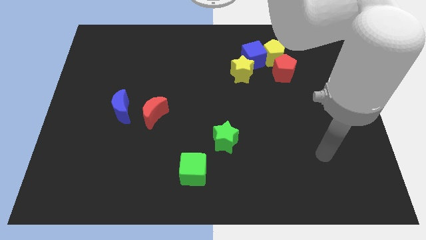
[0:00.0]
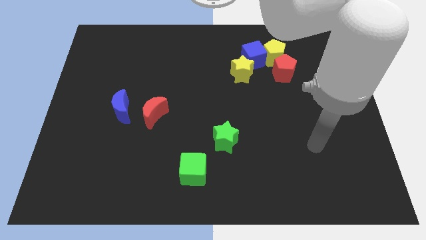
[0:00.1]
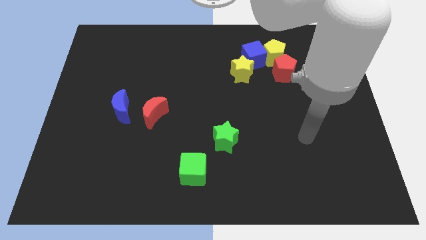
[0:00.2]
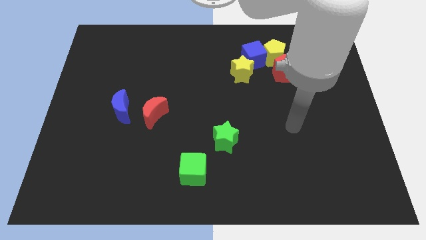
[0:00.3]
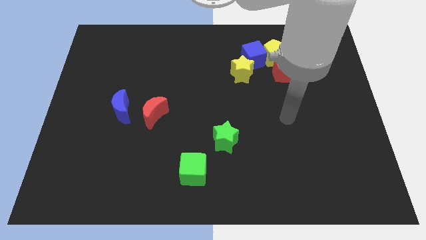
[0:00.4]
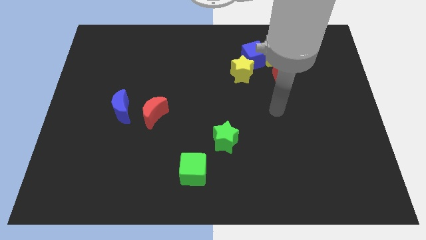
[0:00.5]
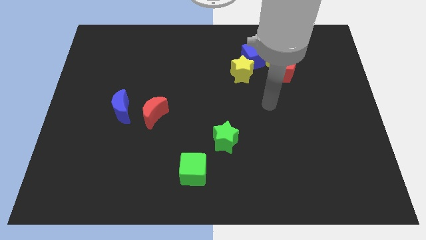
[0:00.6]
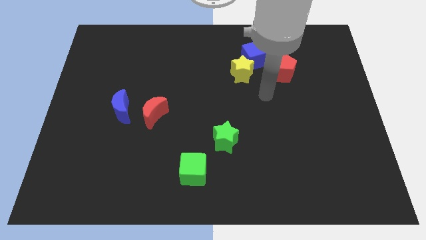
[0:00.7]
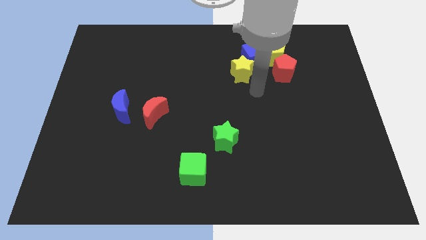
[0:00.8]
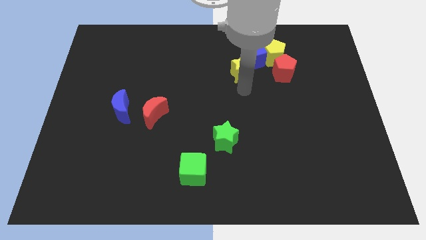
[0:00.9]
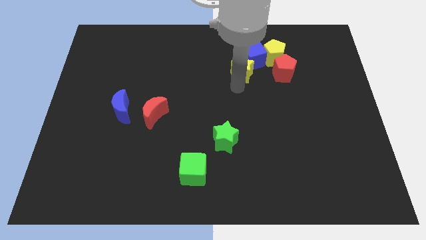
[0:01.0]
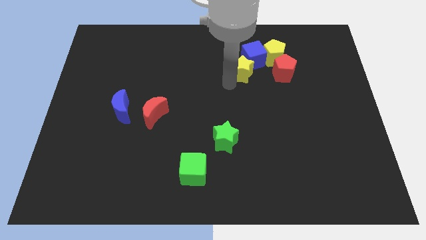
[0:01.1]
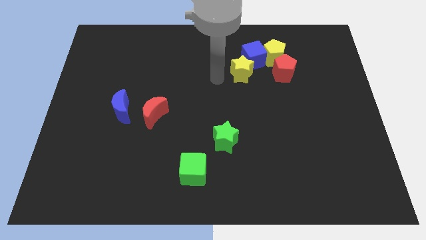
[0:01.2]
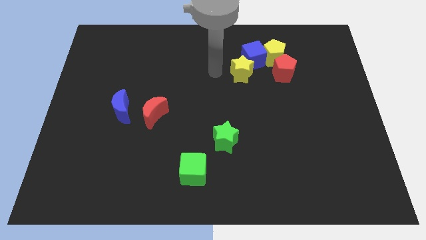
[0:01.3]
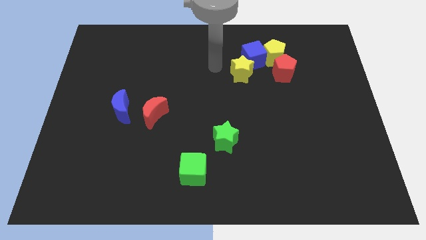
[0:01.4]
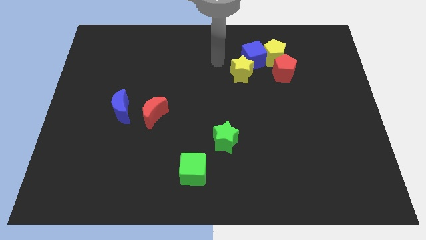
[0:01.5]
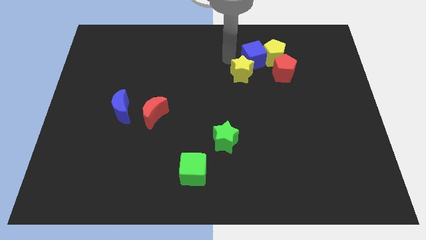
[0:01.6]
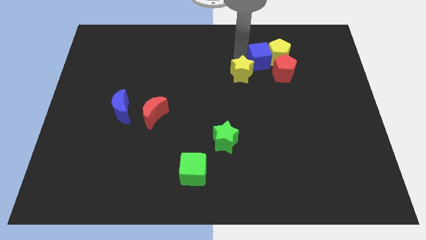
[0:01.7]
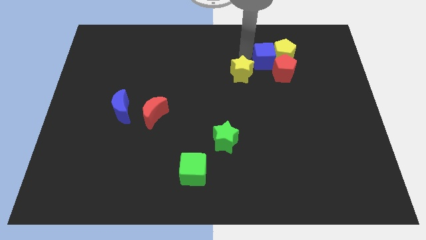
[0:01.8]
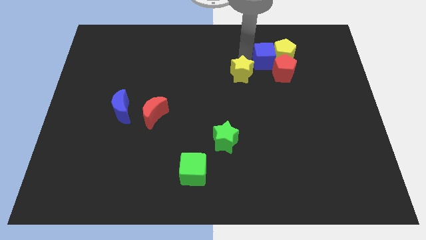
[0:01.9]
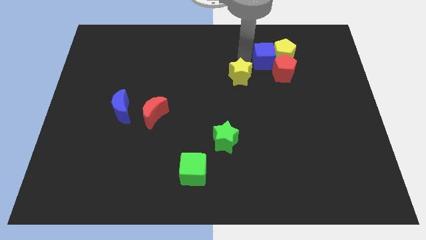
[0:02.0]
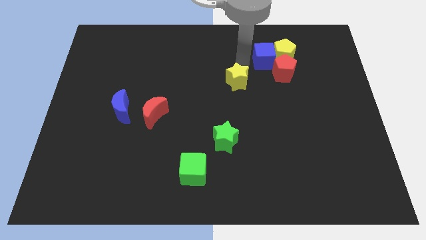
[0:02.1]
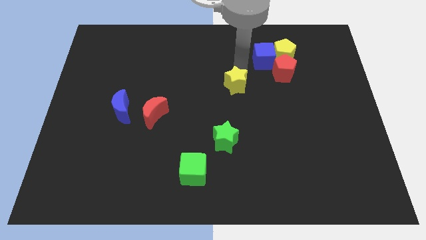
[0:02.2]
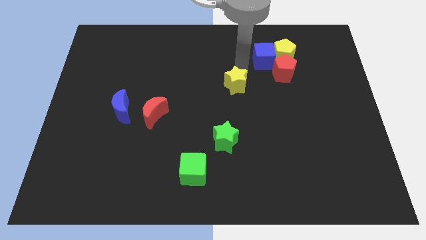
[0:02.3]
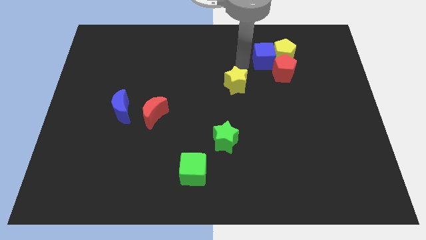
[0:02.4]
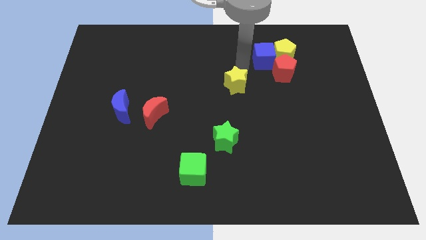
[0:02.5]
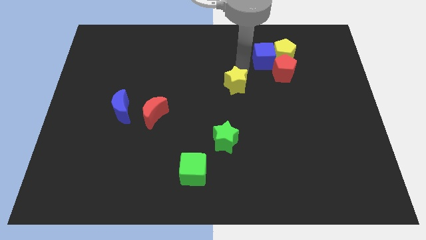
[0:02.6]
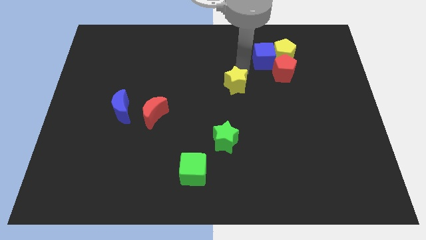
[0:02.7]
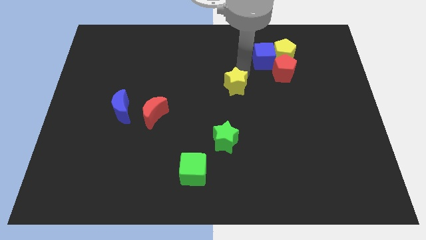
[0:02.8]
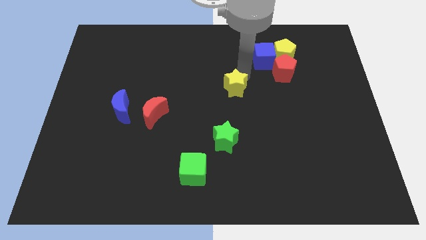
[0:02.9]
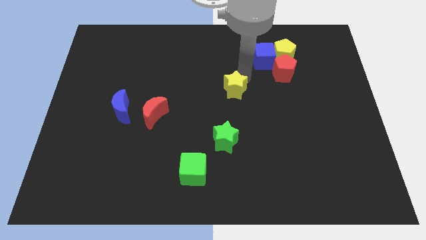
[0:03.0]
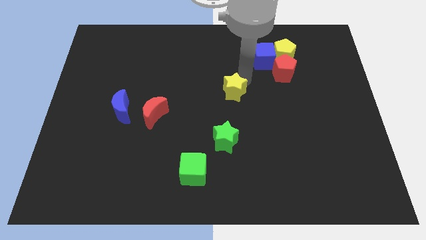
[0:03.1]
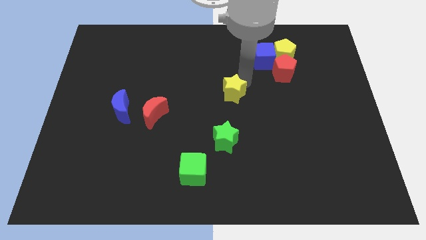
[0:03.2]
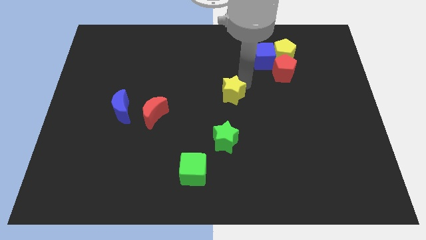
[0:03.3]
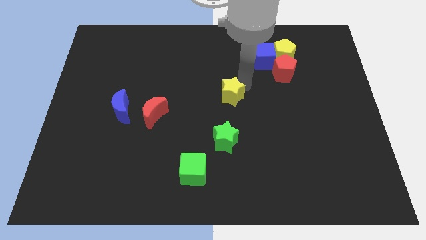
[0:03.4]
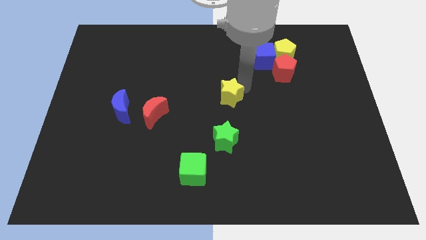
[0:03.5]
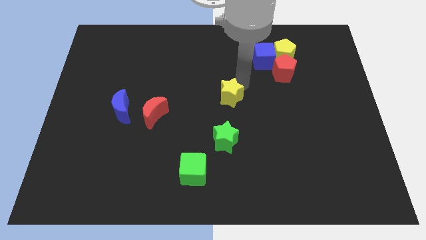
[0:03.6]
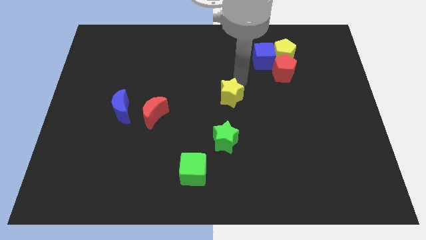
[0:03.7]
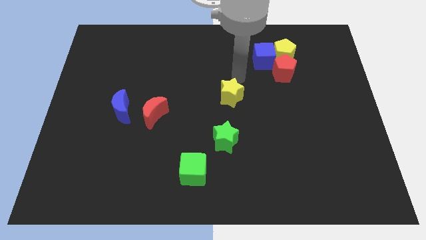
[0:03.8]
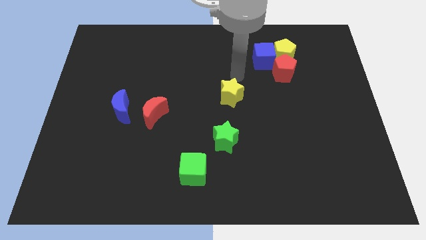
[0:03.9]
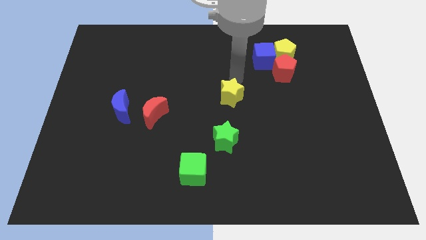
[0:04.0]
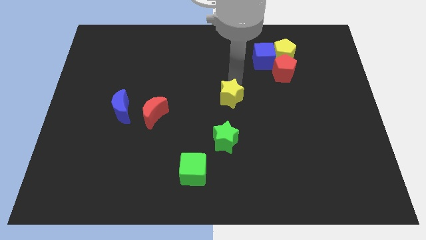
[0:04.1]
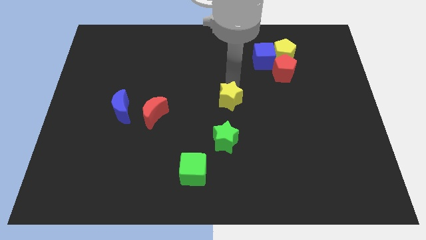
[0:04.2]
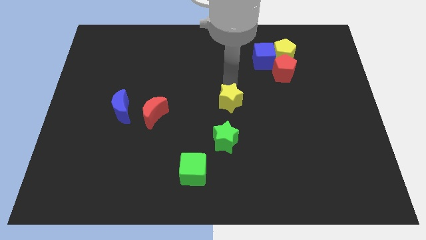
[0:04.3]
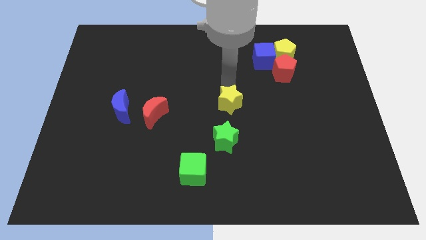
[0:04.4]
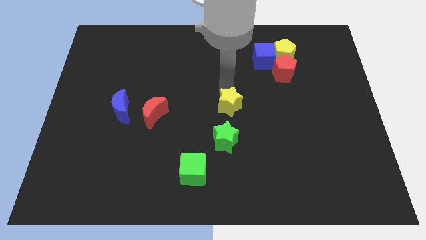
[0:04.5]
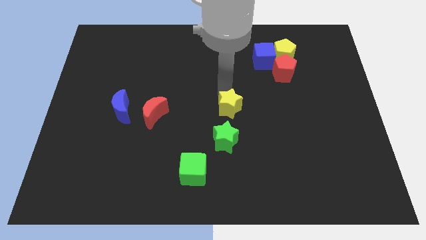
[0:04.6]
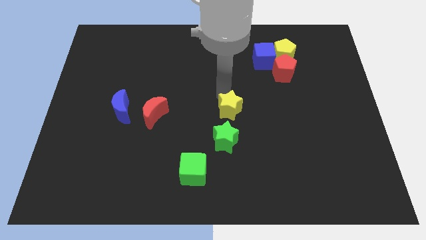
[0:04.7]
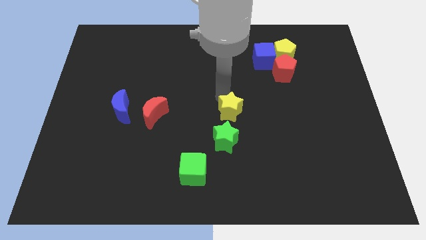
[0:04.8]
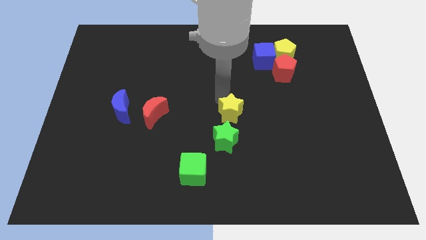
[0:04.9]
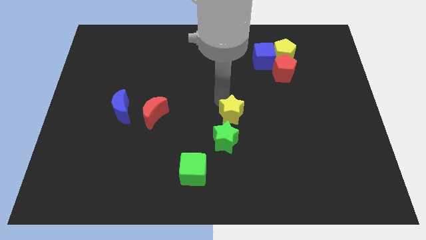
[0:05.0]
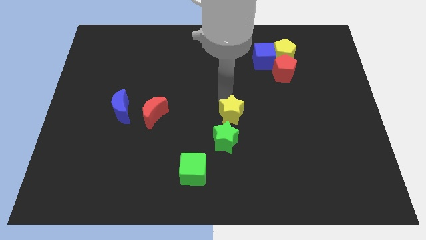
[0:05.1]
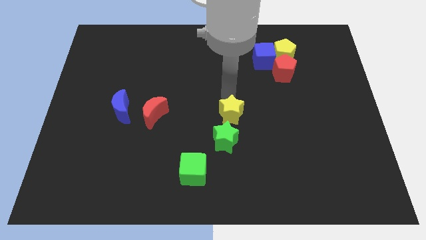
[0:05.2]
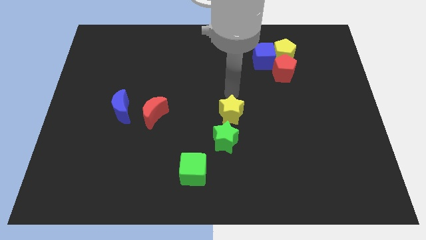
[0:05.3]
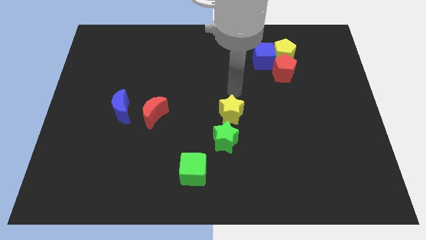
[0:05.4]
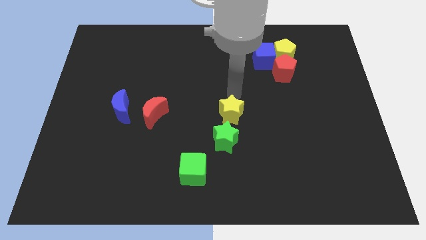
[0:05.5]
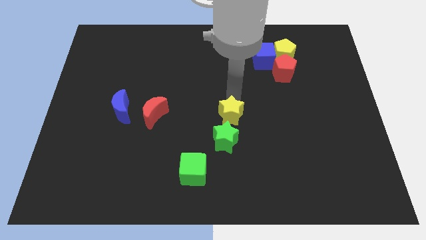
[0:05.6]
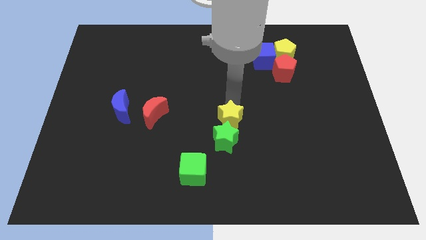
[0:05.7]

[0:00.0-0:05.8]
move the yellow star close to the green star

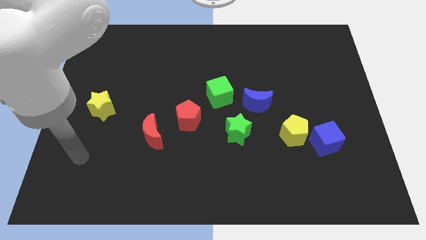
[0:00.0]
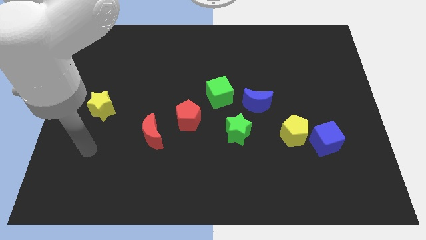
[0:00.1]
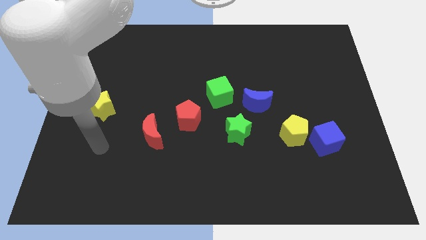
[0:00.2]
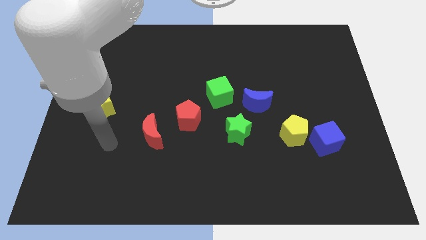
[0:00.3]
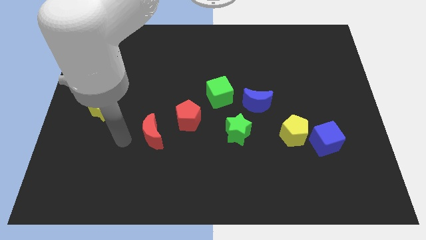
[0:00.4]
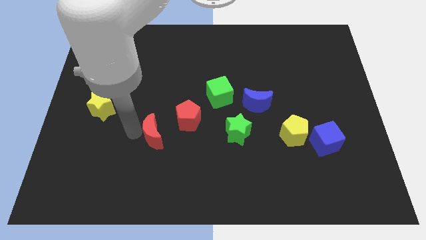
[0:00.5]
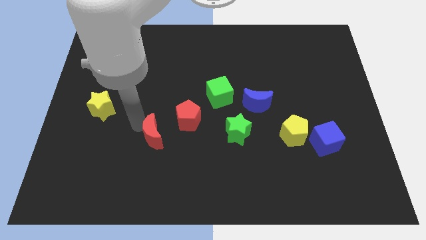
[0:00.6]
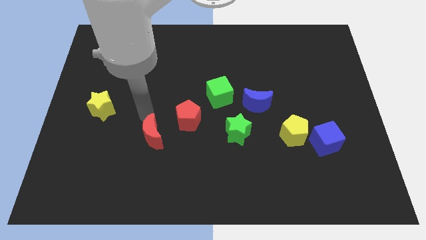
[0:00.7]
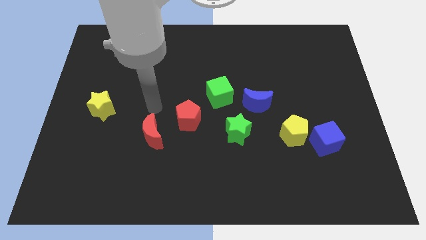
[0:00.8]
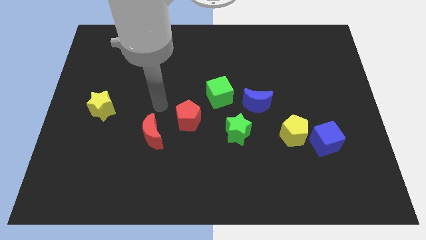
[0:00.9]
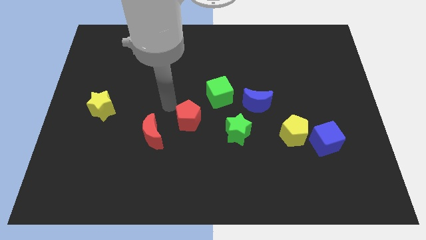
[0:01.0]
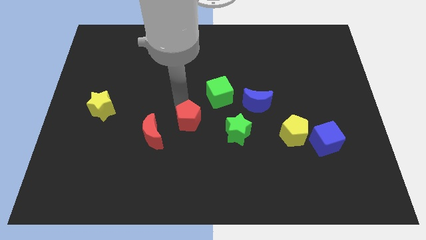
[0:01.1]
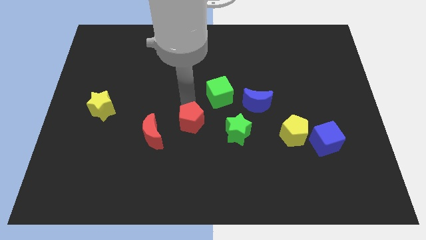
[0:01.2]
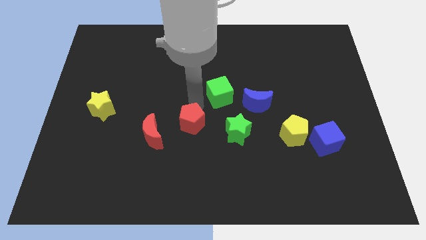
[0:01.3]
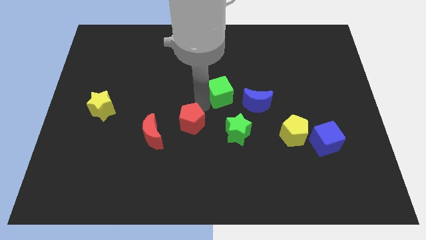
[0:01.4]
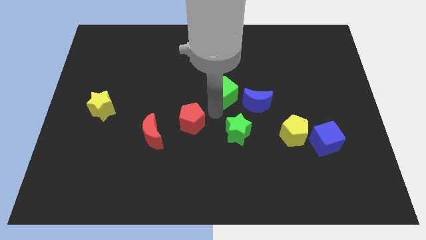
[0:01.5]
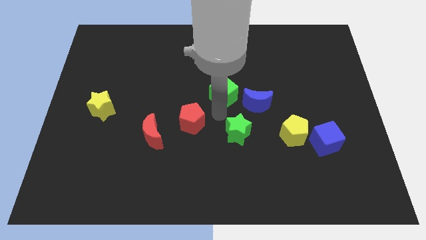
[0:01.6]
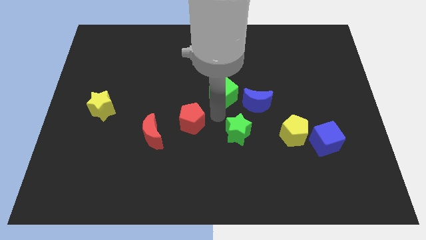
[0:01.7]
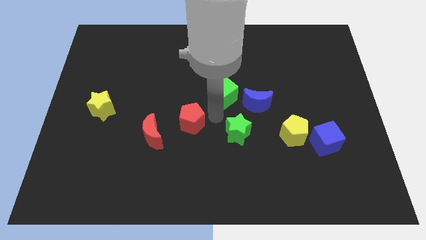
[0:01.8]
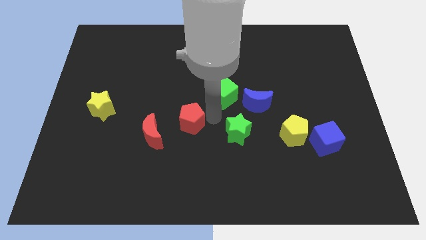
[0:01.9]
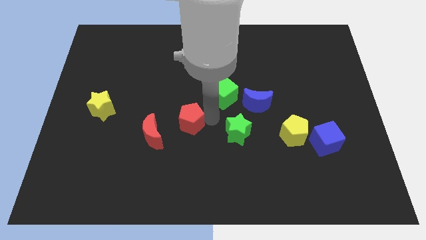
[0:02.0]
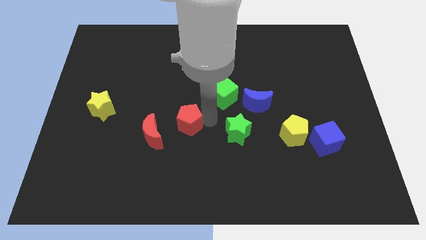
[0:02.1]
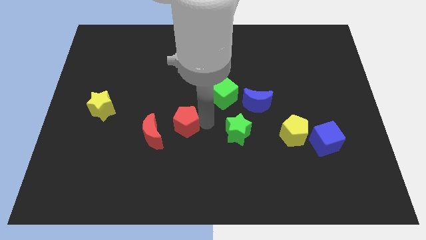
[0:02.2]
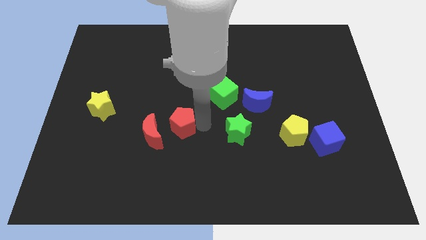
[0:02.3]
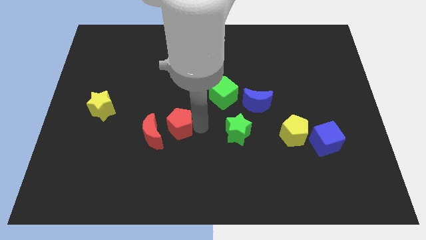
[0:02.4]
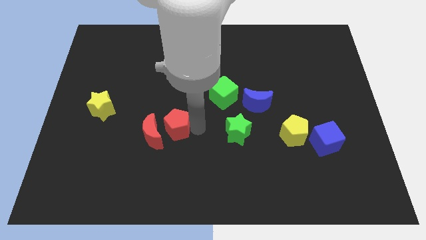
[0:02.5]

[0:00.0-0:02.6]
slide the red pentagon next to the red moon
